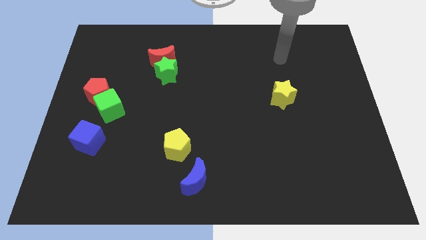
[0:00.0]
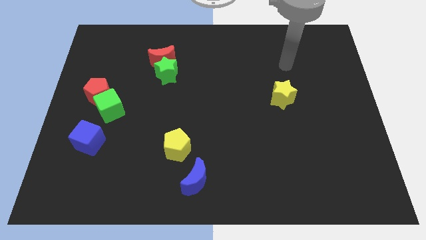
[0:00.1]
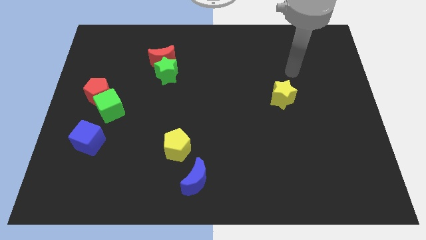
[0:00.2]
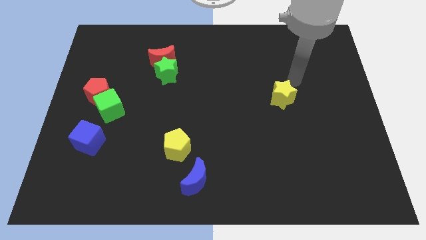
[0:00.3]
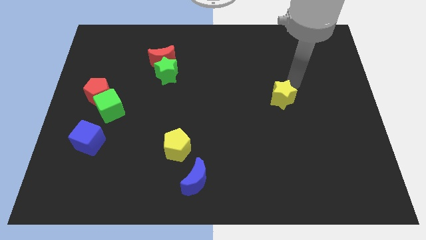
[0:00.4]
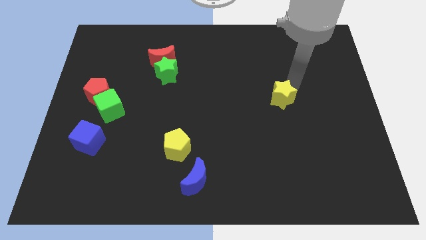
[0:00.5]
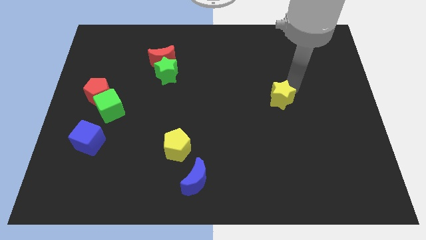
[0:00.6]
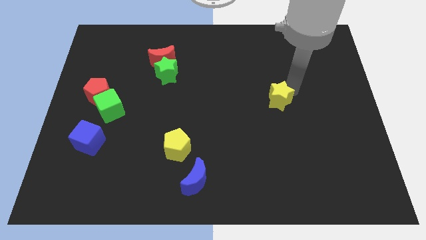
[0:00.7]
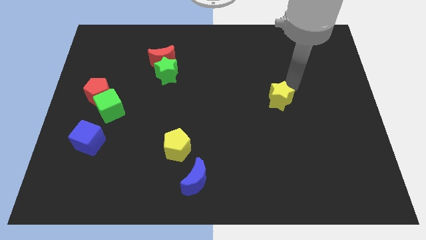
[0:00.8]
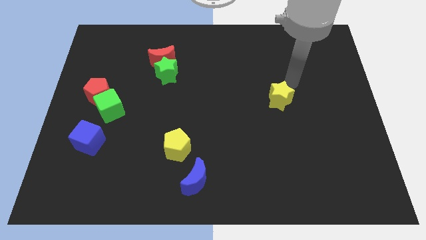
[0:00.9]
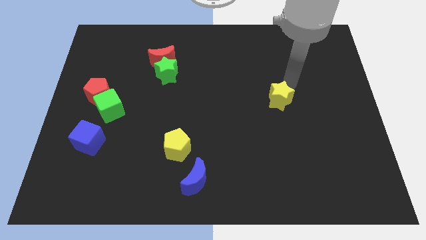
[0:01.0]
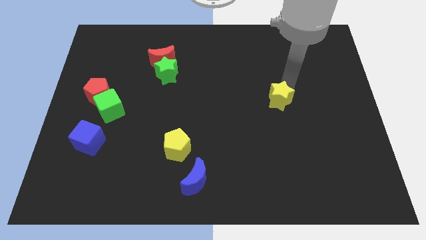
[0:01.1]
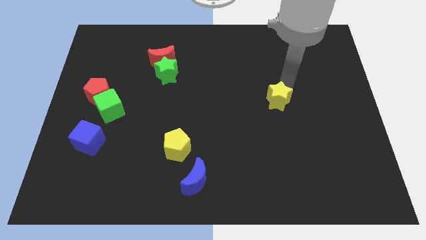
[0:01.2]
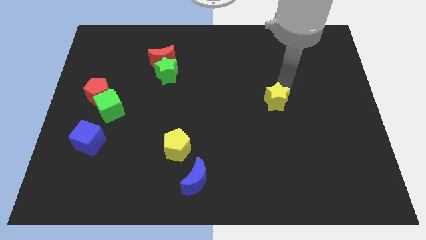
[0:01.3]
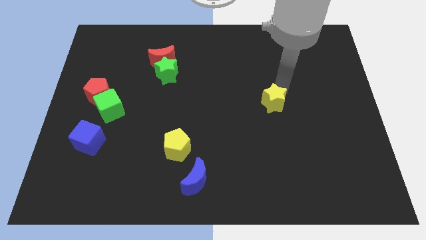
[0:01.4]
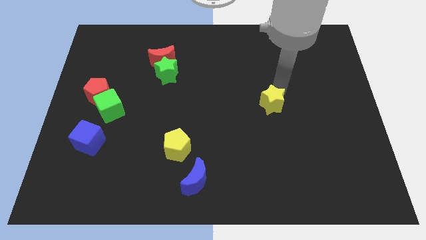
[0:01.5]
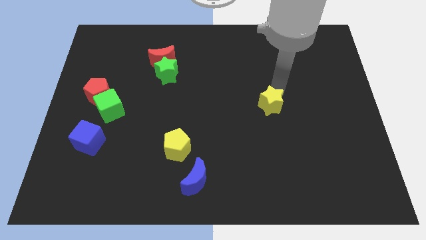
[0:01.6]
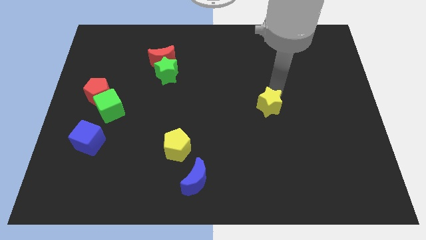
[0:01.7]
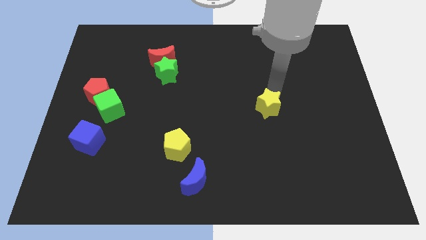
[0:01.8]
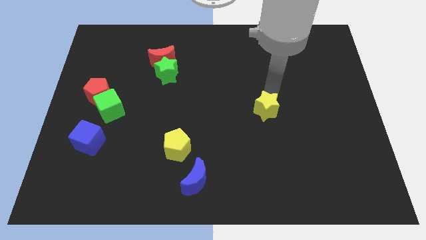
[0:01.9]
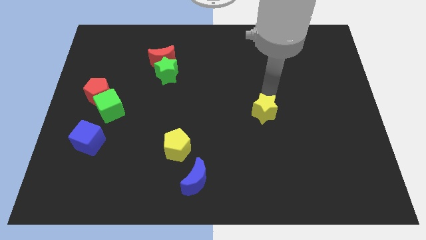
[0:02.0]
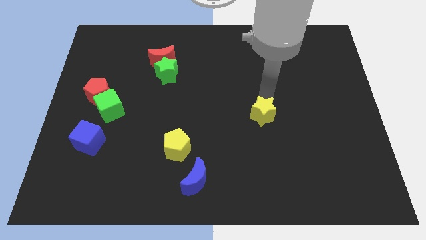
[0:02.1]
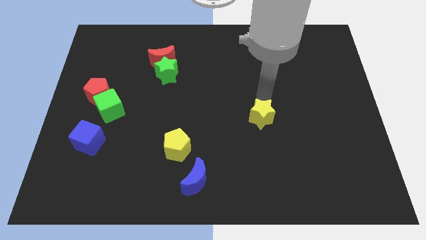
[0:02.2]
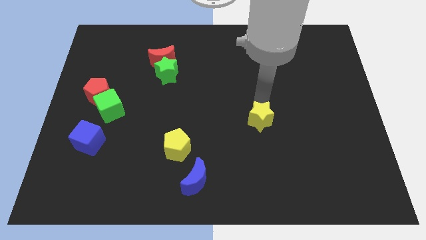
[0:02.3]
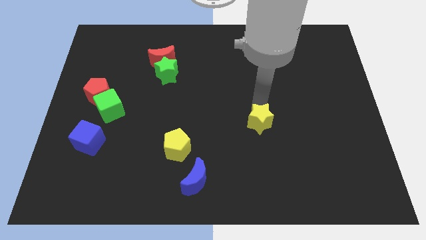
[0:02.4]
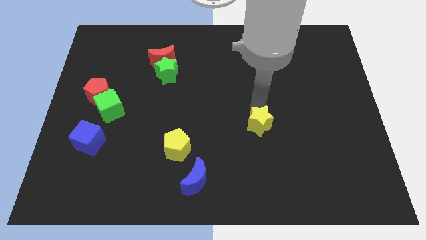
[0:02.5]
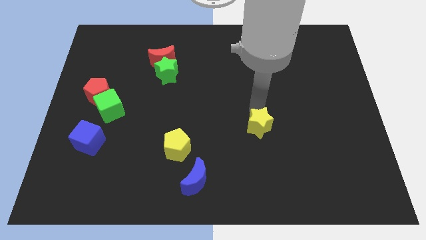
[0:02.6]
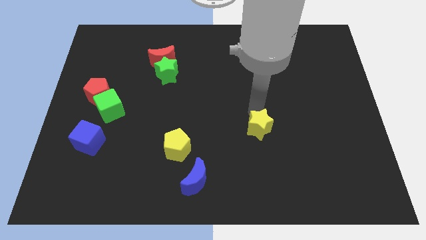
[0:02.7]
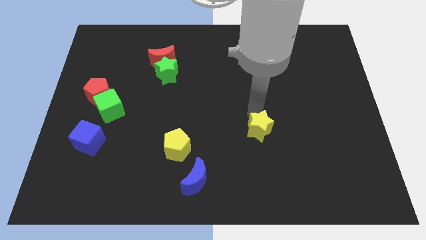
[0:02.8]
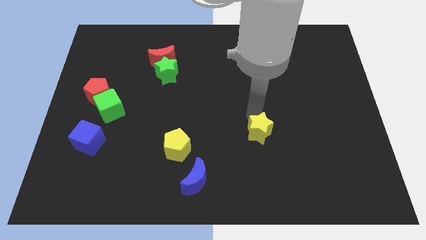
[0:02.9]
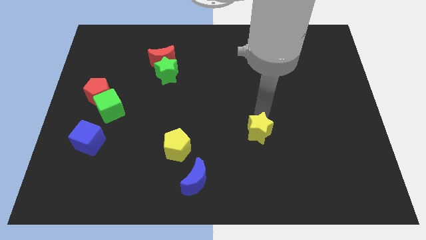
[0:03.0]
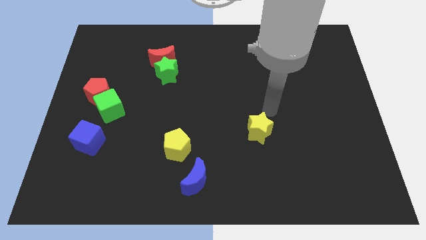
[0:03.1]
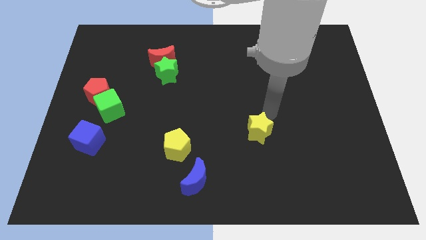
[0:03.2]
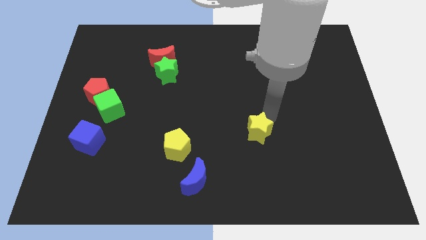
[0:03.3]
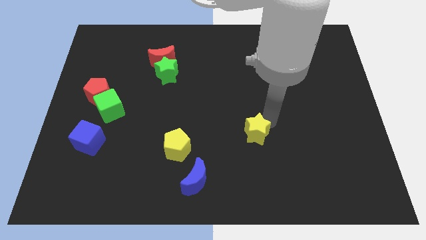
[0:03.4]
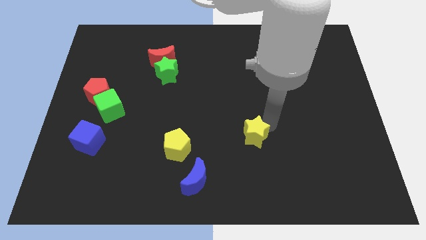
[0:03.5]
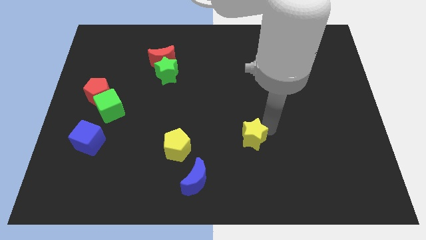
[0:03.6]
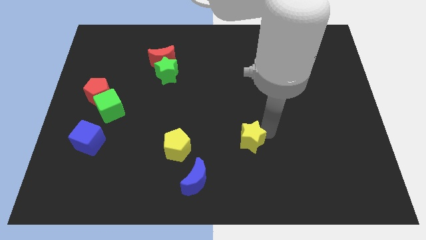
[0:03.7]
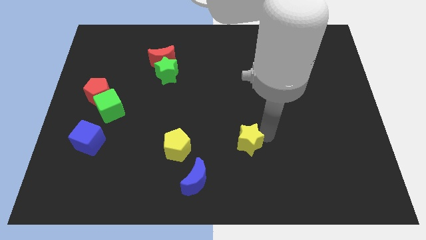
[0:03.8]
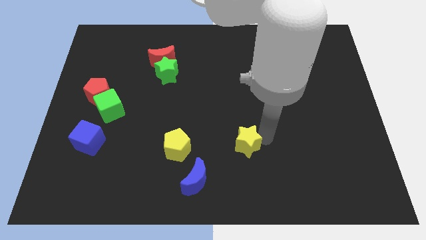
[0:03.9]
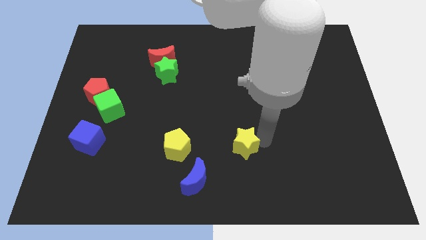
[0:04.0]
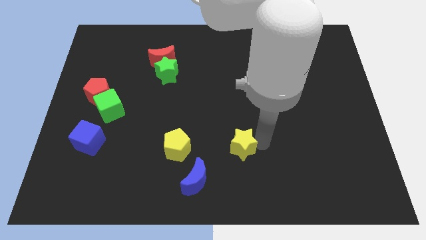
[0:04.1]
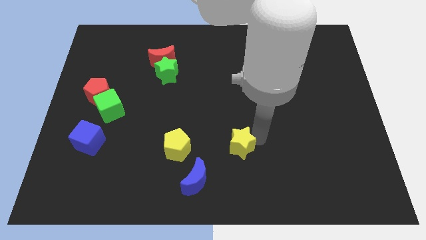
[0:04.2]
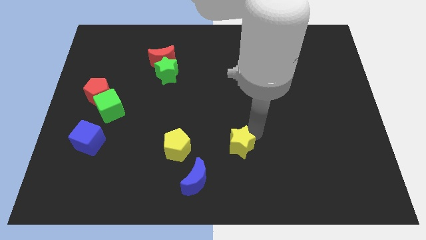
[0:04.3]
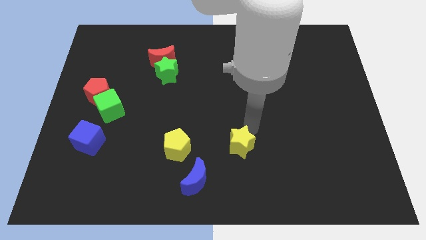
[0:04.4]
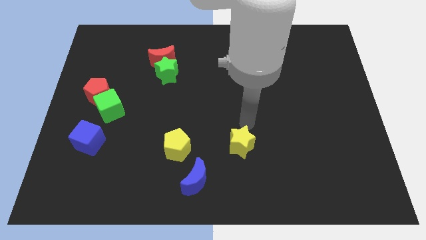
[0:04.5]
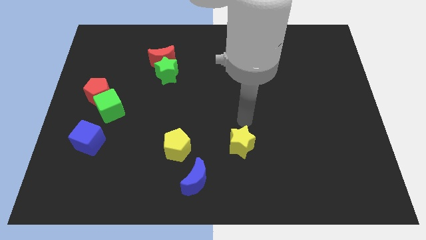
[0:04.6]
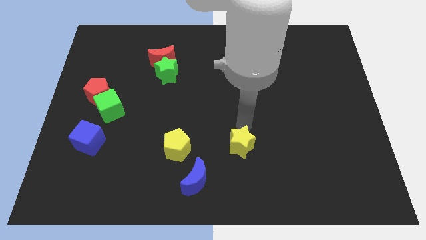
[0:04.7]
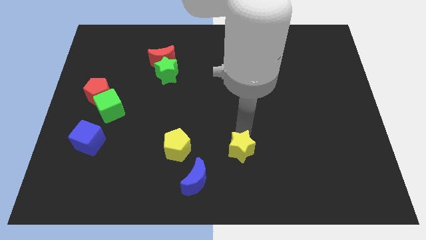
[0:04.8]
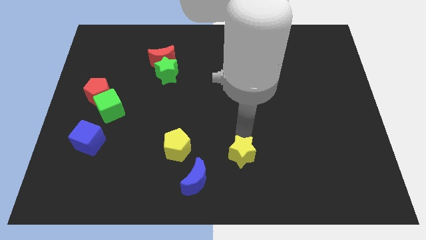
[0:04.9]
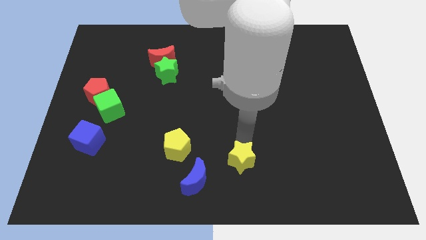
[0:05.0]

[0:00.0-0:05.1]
push the yellow star to the bottom side

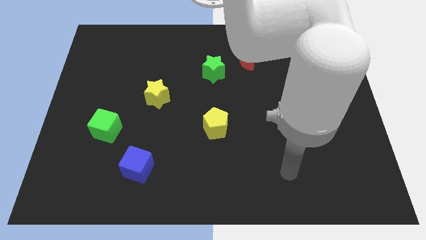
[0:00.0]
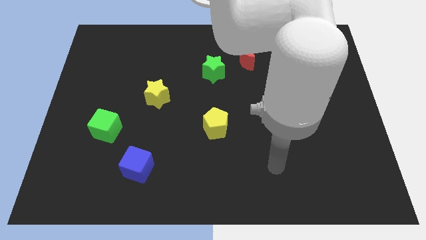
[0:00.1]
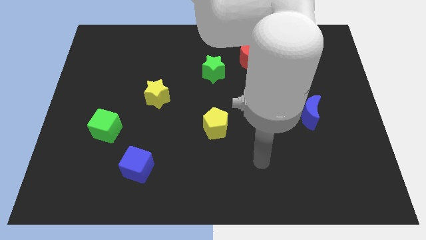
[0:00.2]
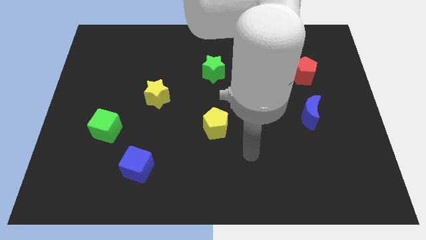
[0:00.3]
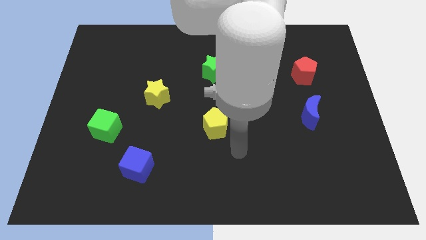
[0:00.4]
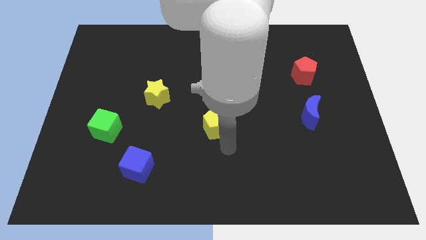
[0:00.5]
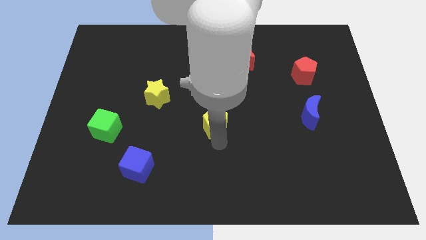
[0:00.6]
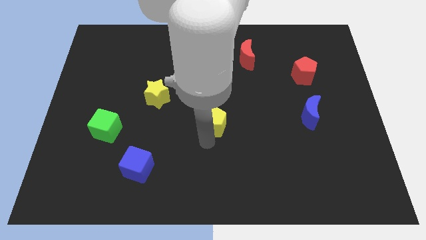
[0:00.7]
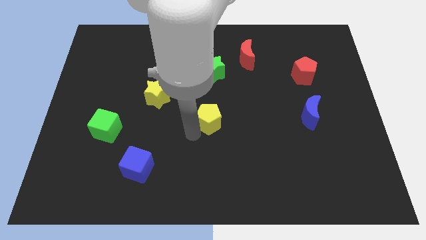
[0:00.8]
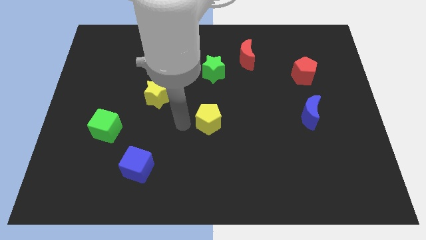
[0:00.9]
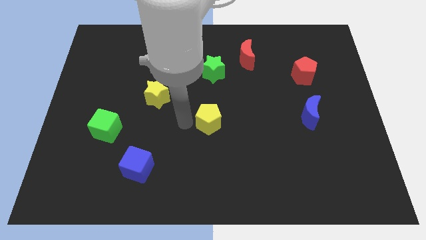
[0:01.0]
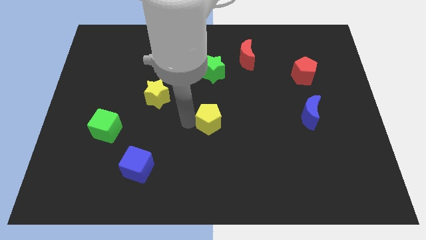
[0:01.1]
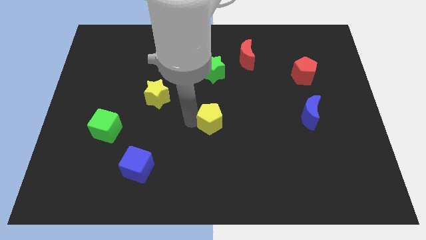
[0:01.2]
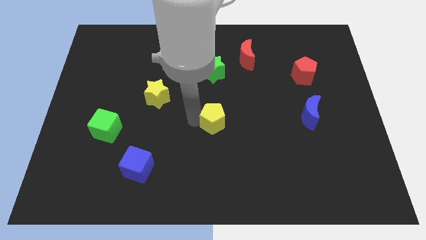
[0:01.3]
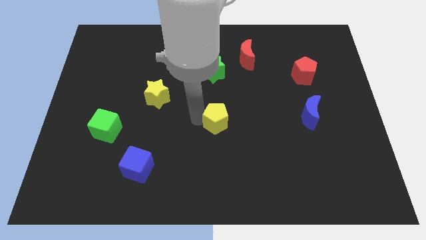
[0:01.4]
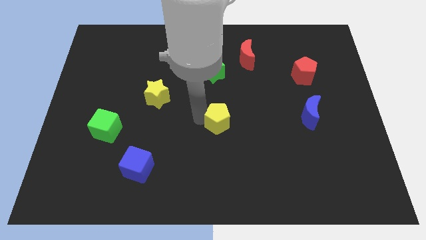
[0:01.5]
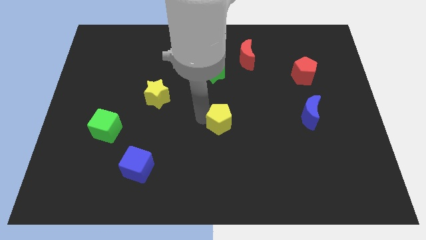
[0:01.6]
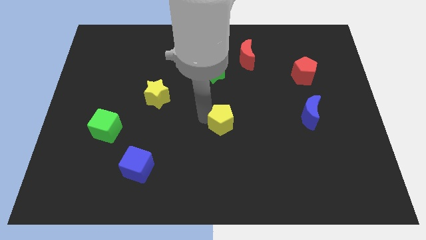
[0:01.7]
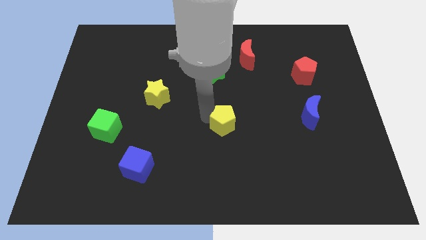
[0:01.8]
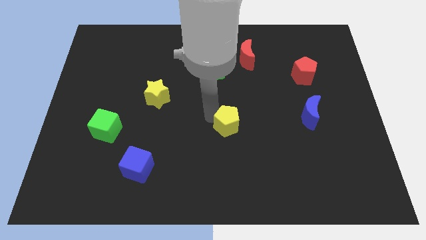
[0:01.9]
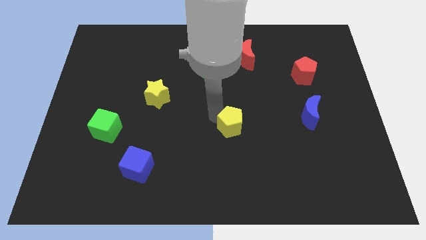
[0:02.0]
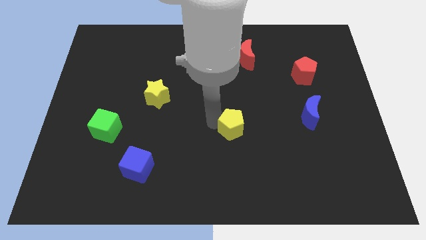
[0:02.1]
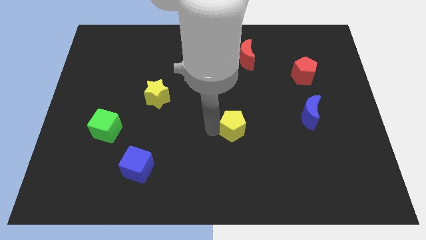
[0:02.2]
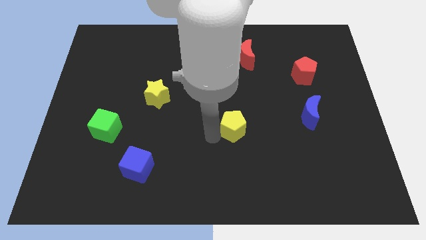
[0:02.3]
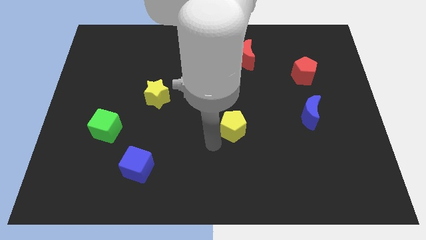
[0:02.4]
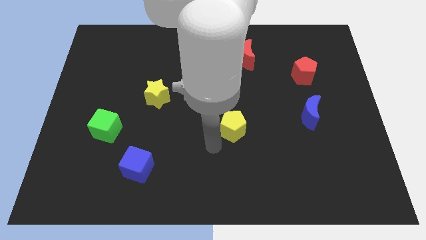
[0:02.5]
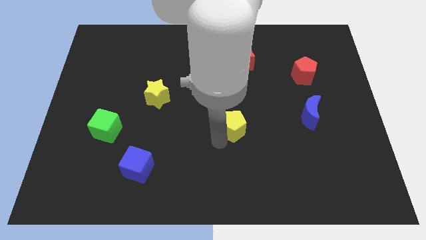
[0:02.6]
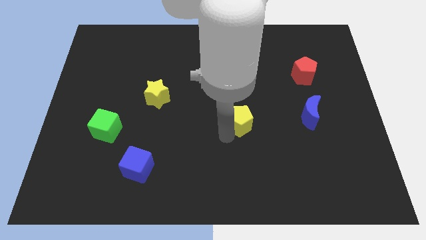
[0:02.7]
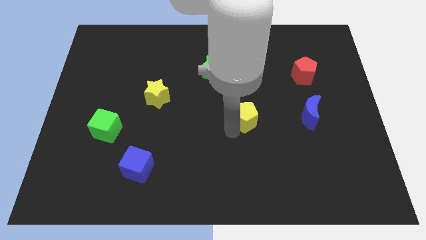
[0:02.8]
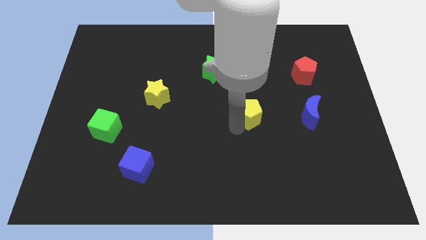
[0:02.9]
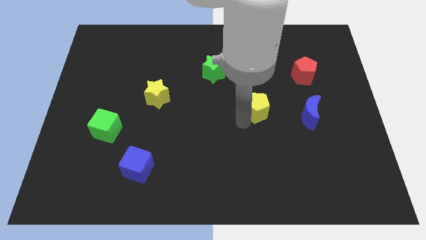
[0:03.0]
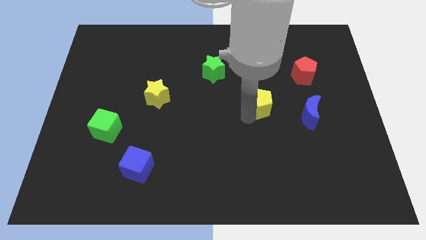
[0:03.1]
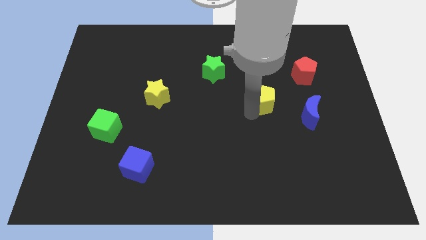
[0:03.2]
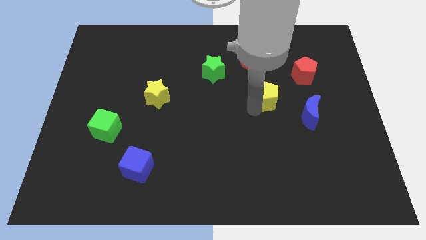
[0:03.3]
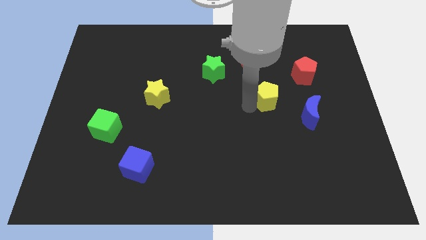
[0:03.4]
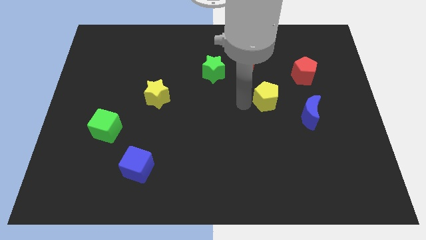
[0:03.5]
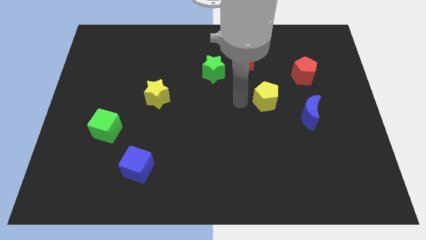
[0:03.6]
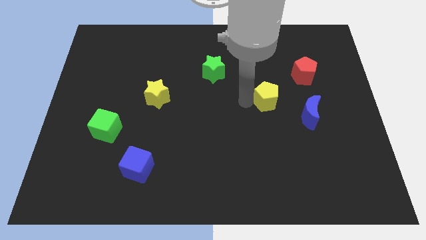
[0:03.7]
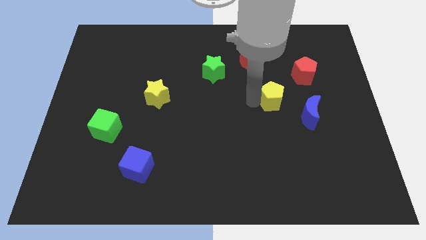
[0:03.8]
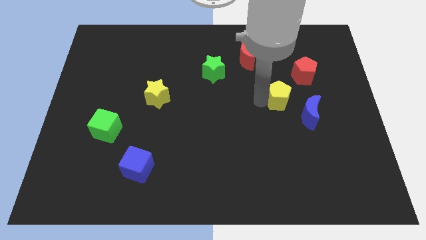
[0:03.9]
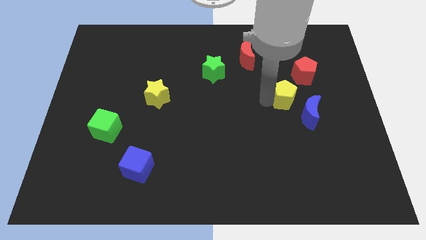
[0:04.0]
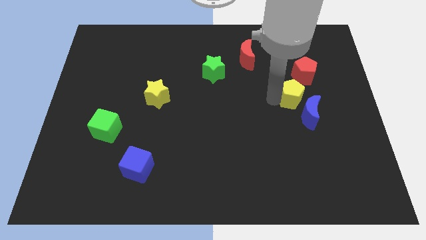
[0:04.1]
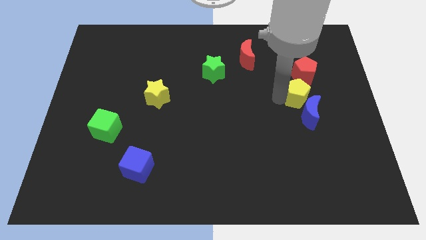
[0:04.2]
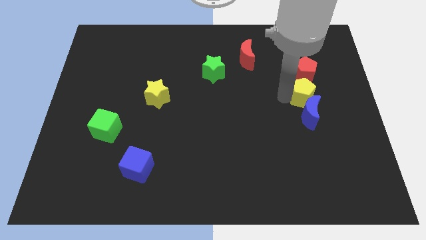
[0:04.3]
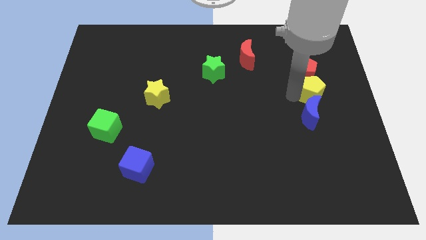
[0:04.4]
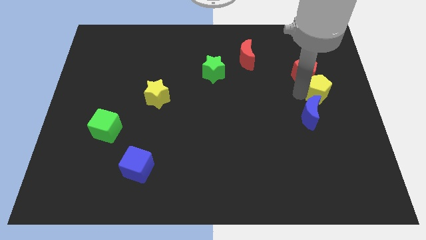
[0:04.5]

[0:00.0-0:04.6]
push the yellow pentagon to the right side
